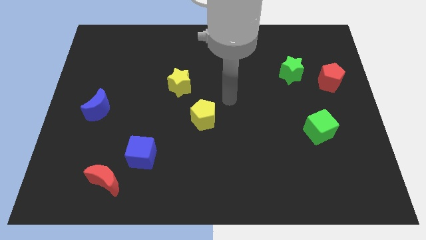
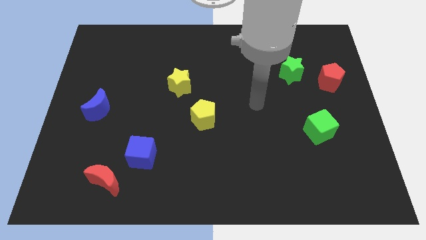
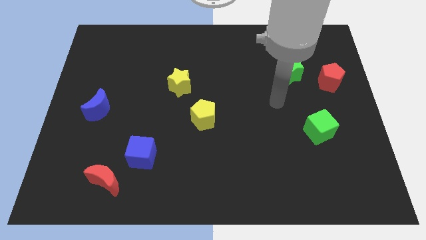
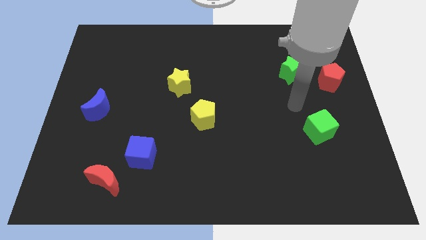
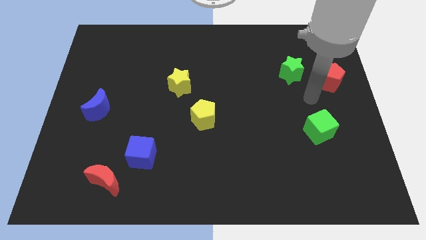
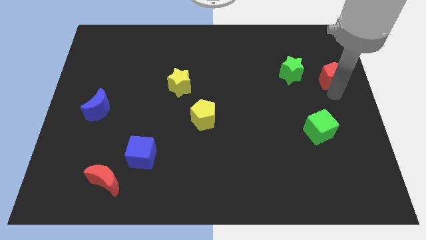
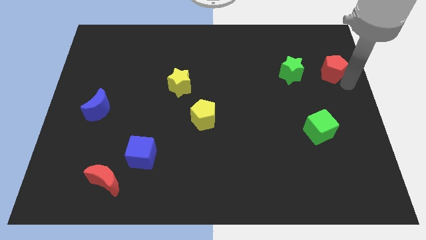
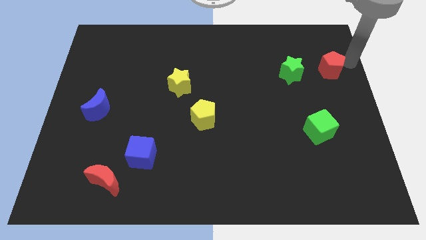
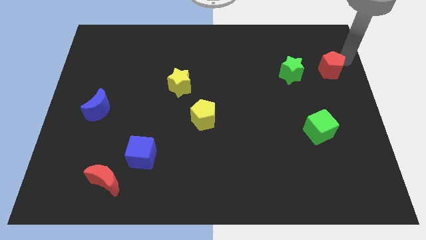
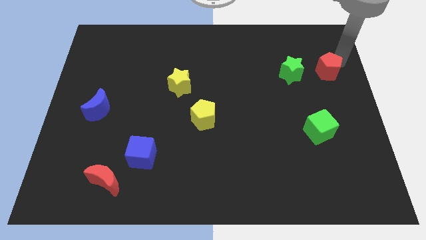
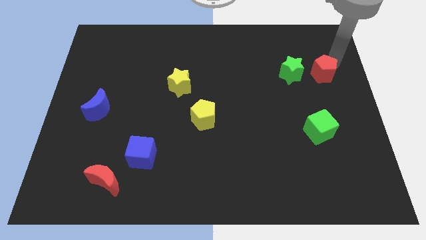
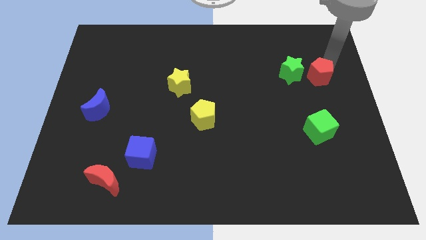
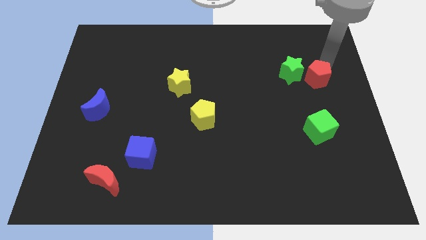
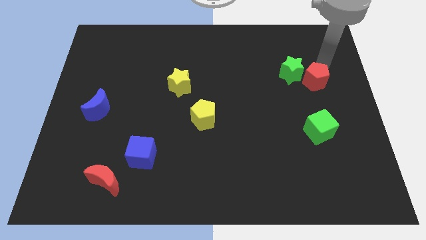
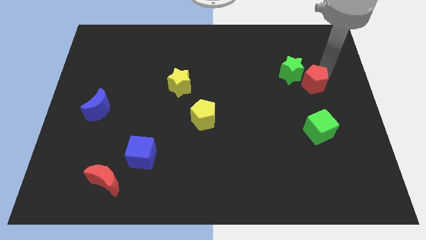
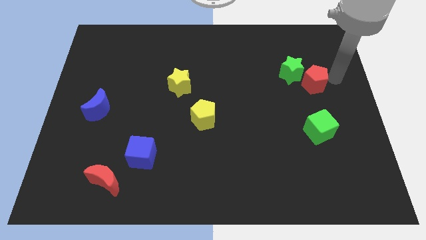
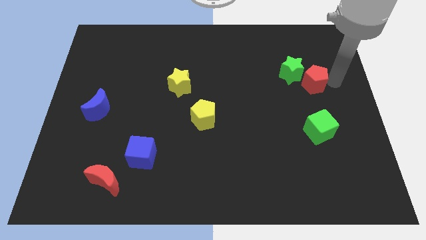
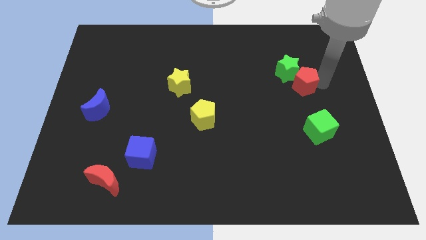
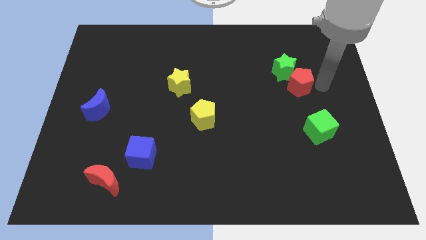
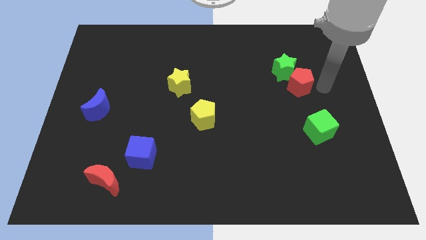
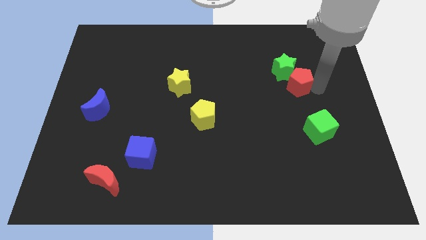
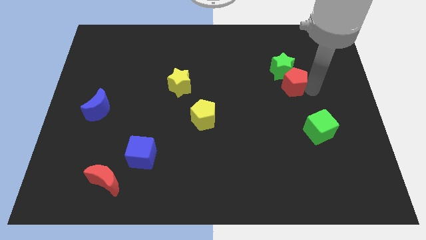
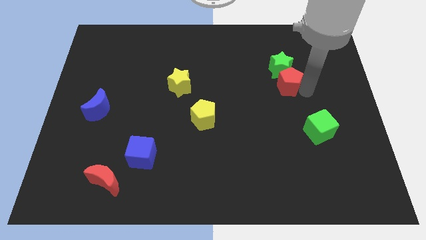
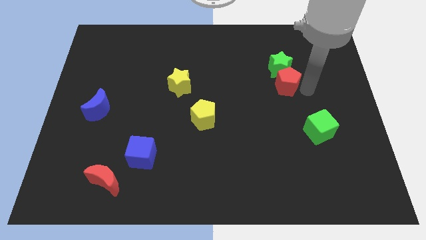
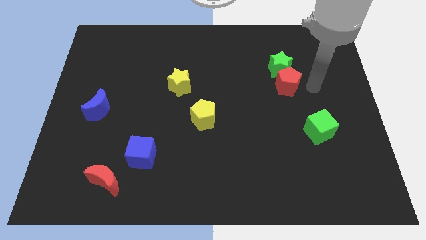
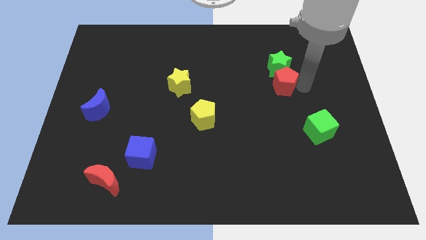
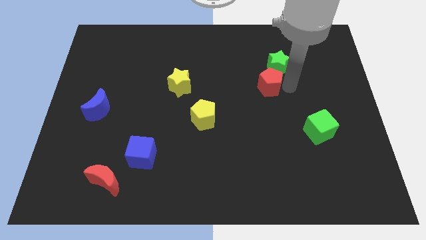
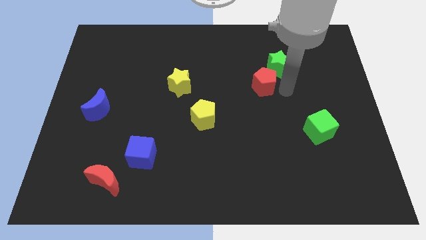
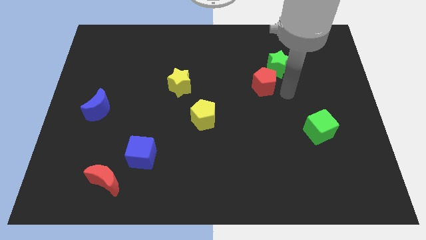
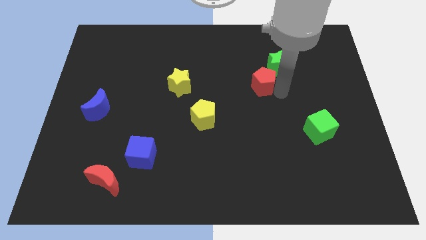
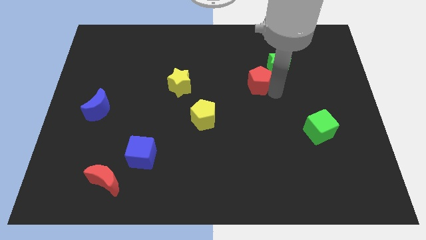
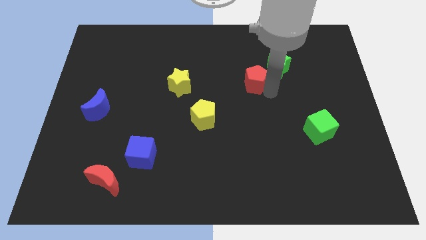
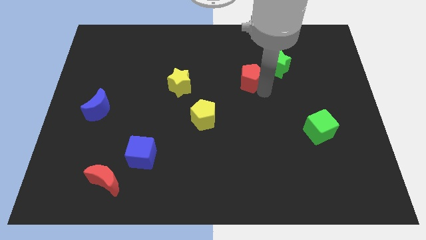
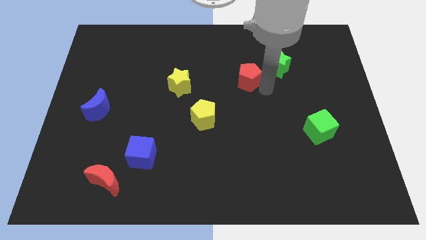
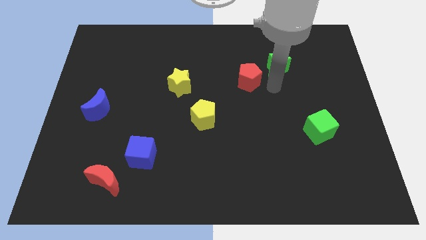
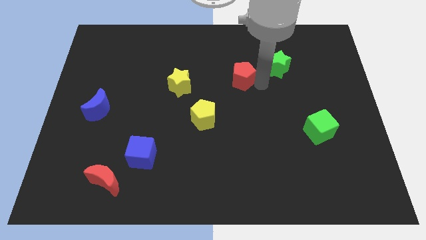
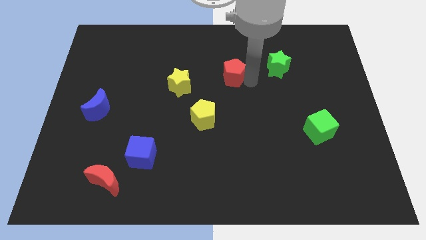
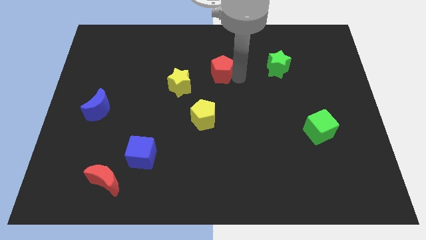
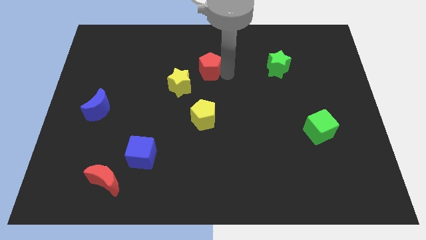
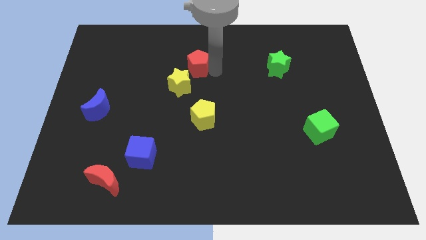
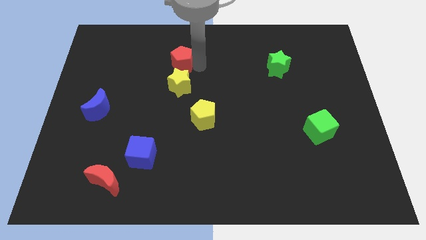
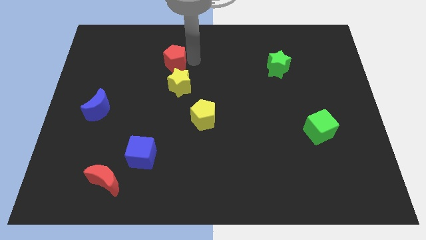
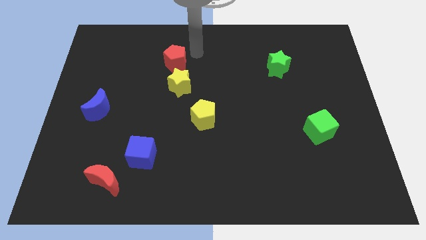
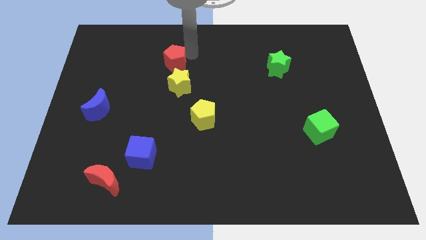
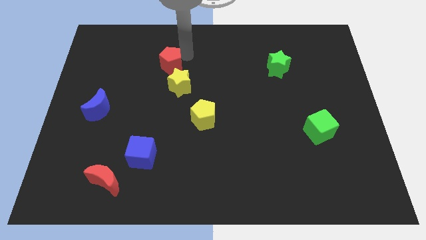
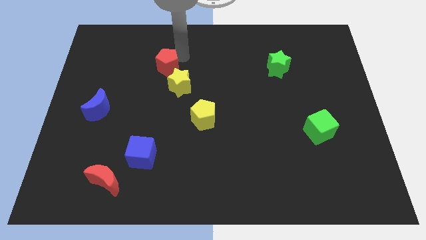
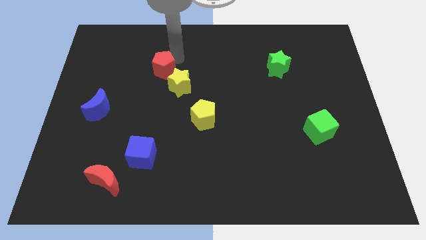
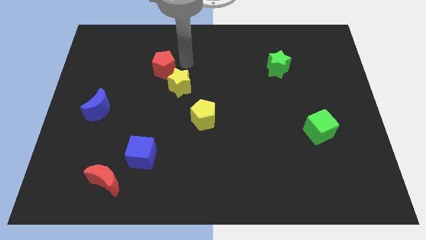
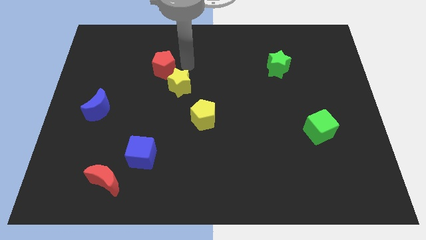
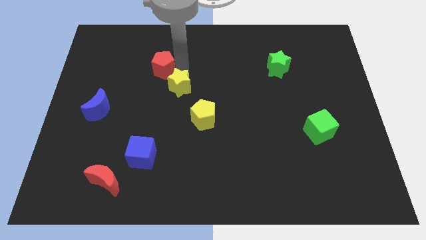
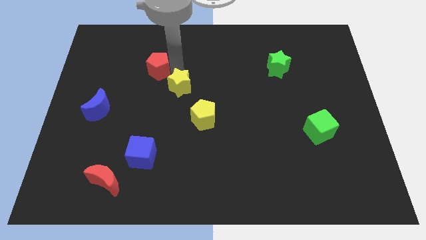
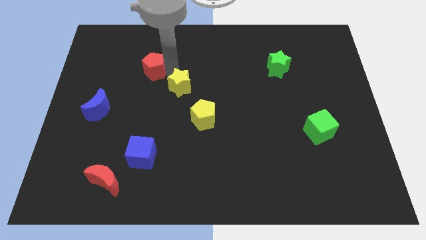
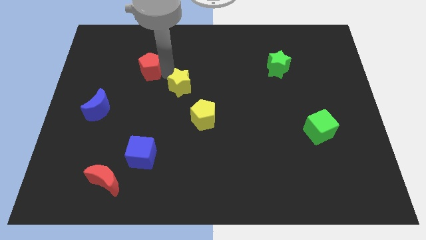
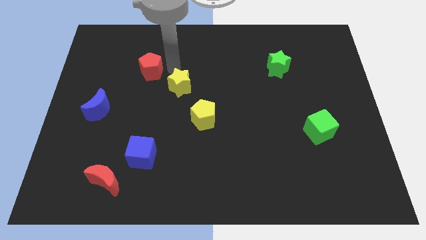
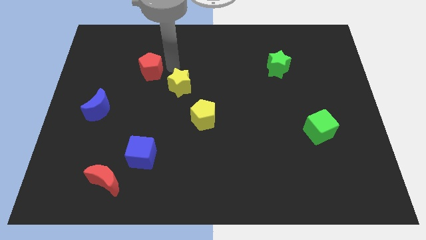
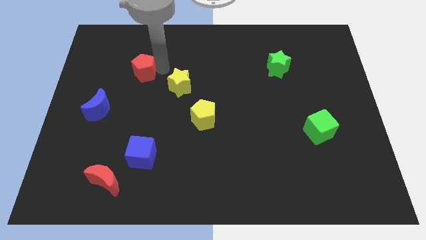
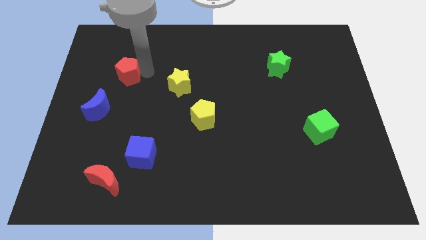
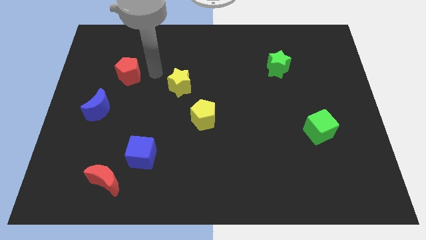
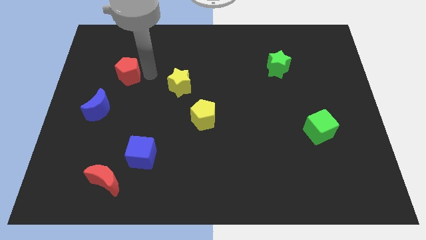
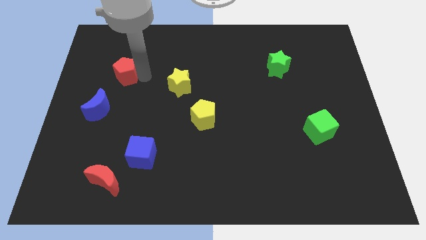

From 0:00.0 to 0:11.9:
push the red pentagon to the top of the blue moon

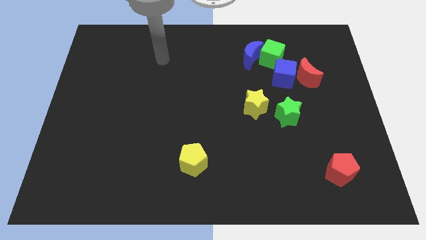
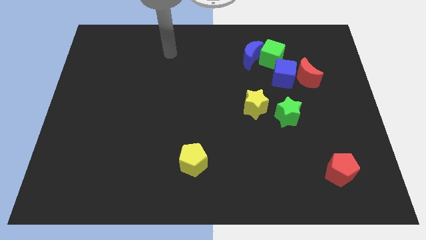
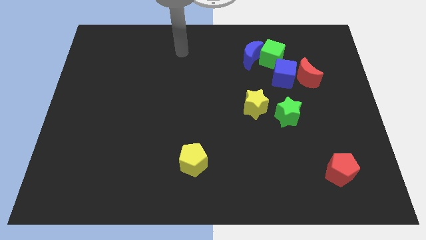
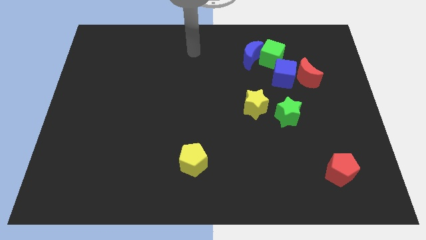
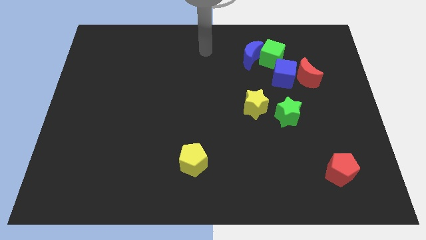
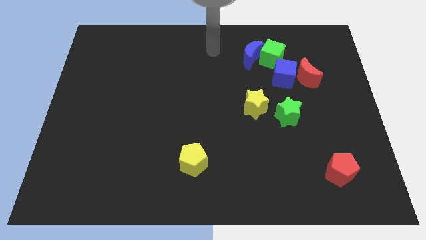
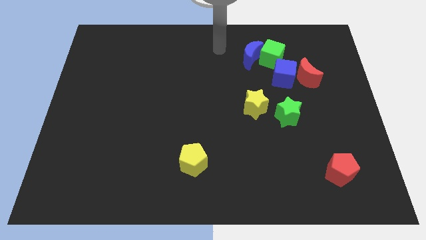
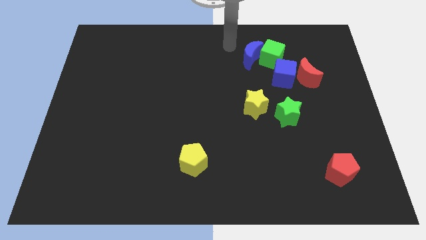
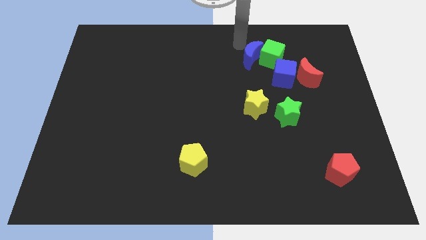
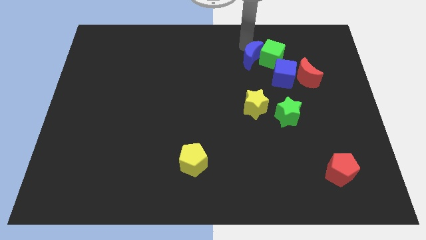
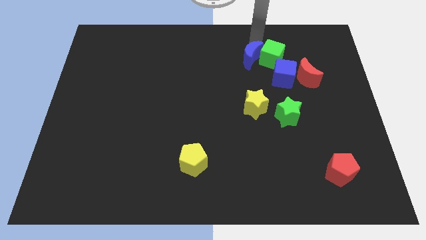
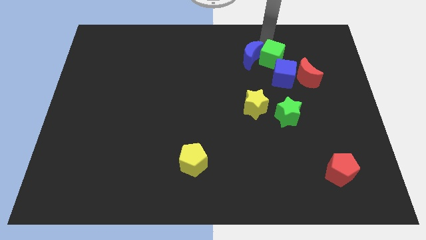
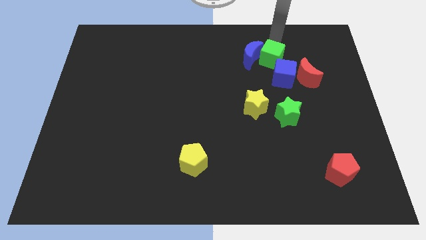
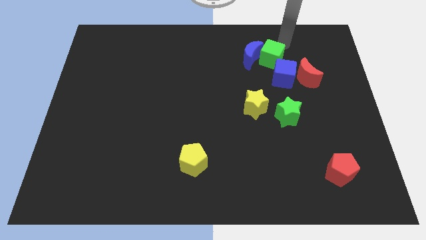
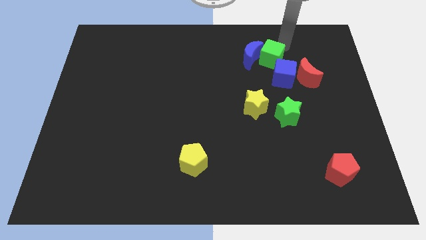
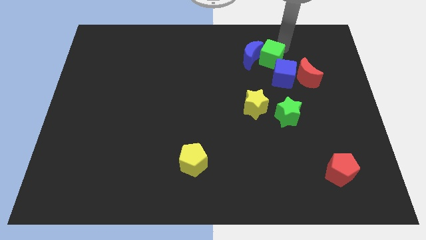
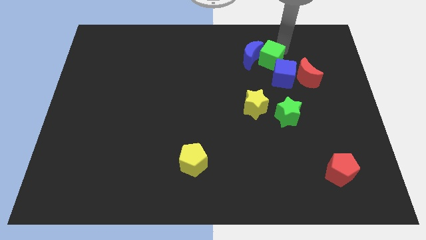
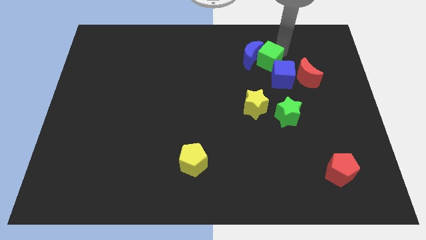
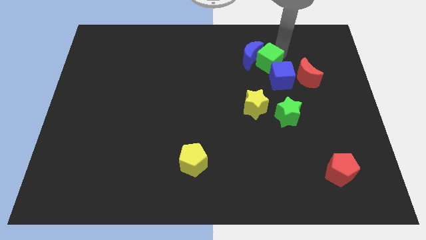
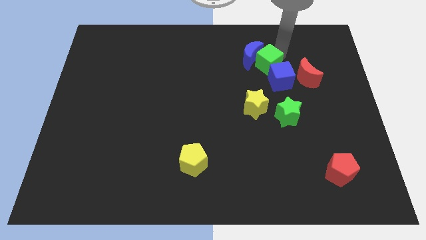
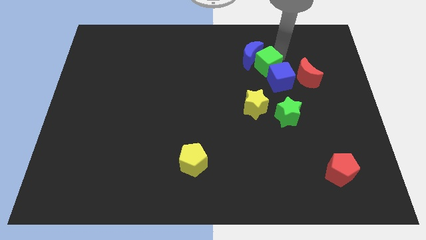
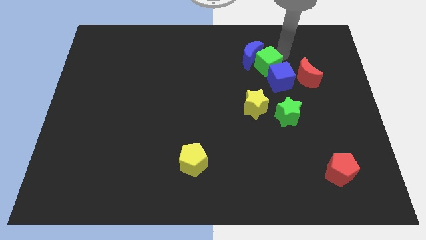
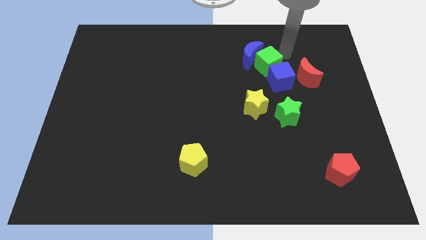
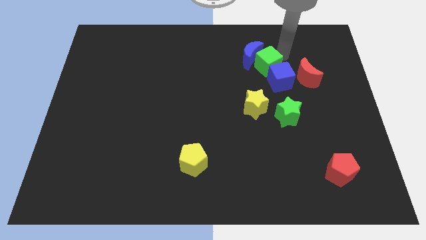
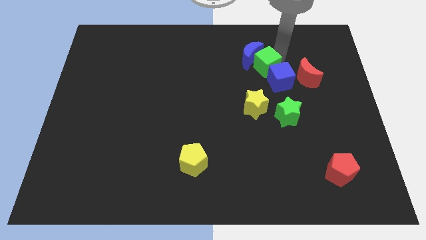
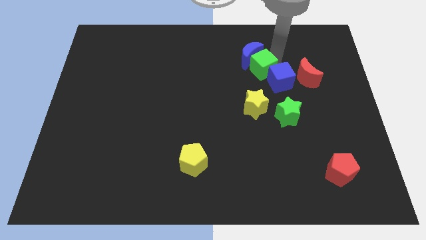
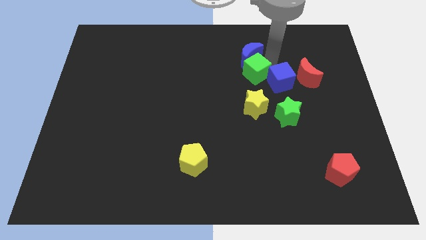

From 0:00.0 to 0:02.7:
push the green cube to the bottom left side of the blue moon
